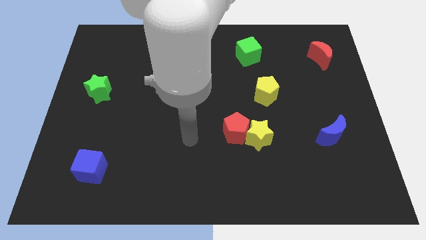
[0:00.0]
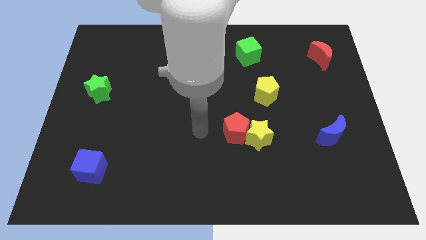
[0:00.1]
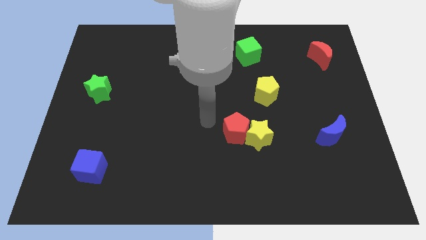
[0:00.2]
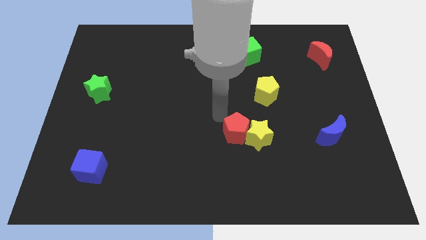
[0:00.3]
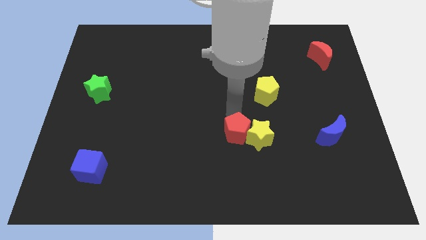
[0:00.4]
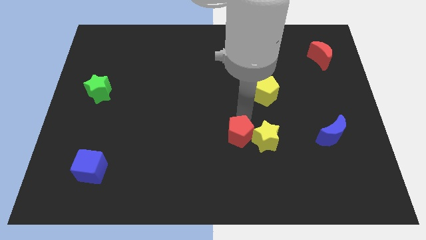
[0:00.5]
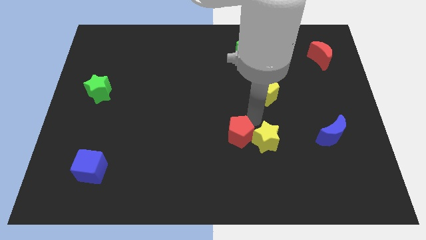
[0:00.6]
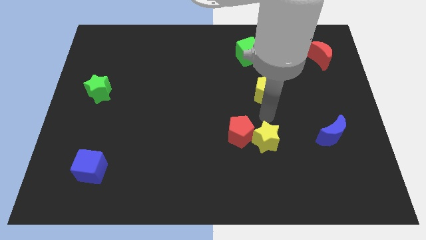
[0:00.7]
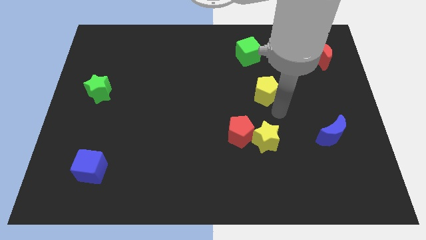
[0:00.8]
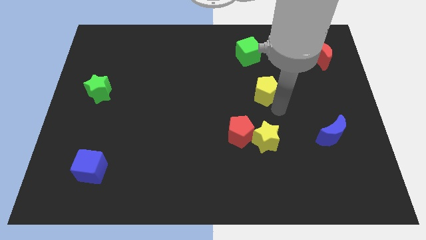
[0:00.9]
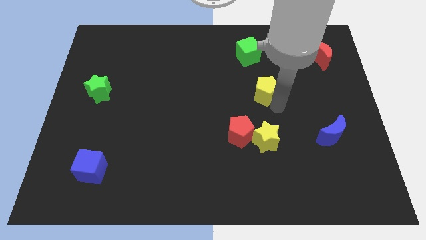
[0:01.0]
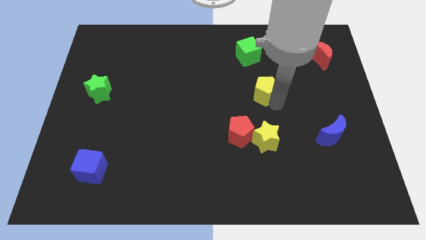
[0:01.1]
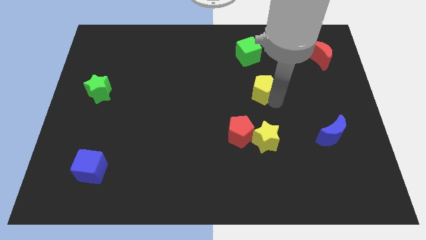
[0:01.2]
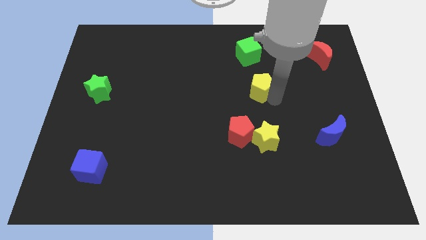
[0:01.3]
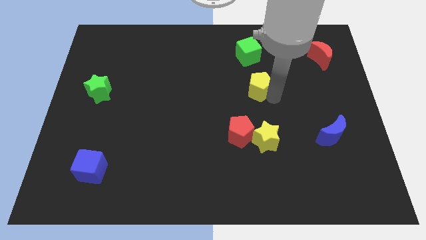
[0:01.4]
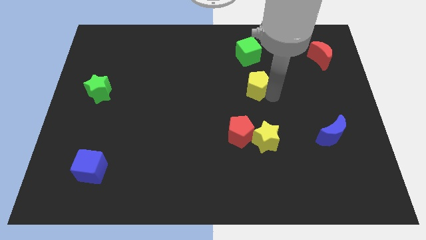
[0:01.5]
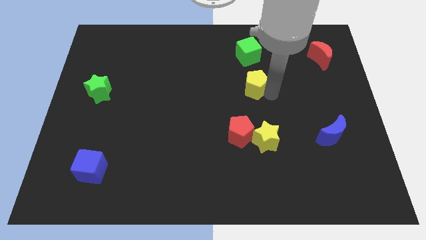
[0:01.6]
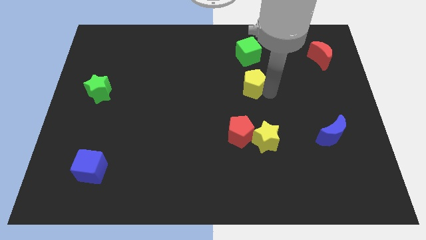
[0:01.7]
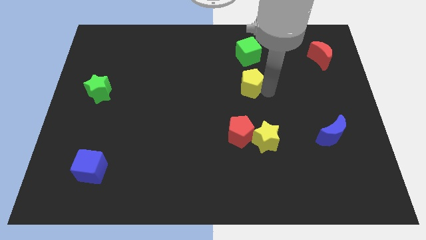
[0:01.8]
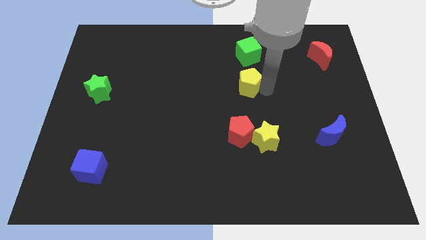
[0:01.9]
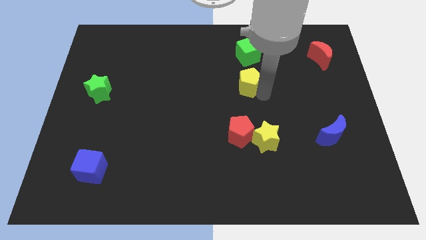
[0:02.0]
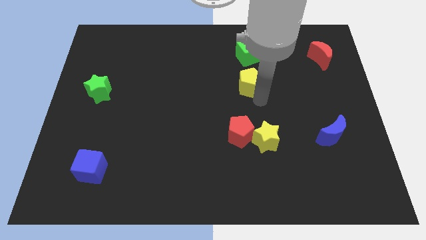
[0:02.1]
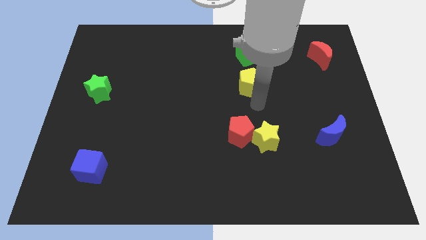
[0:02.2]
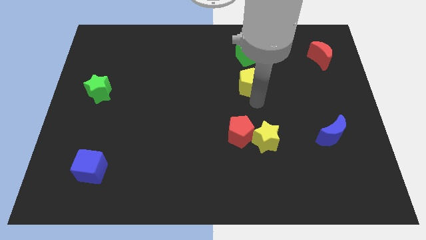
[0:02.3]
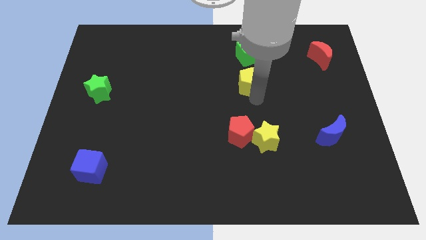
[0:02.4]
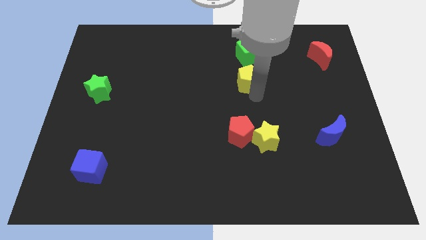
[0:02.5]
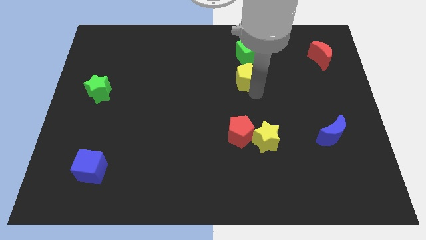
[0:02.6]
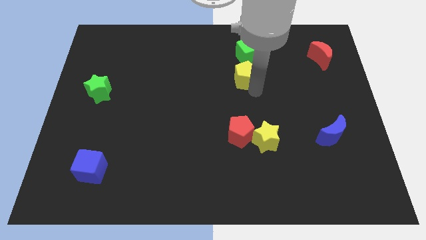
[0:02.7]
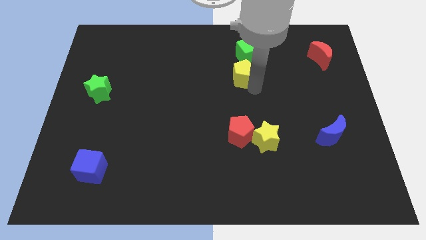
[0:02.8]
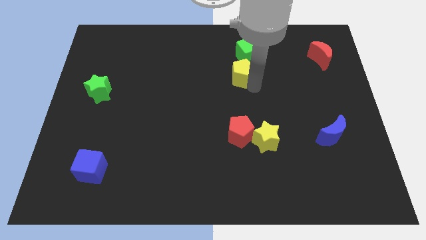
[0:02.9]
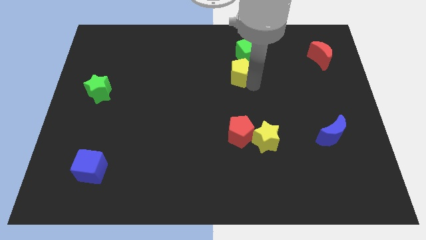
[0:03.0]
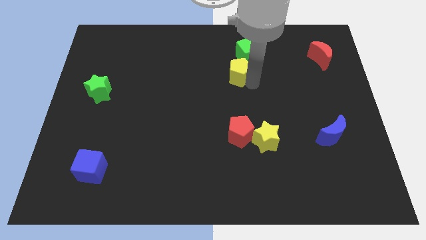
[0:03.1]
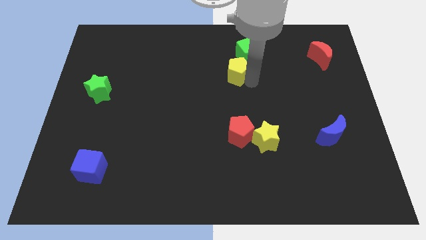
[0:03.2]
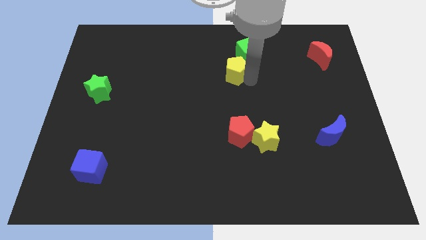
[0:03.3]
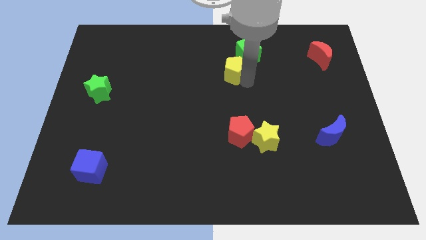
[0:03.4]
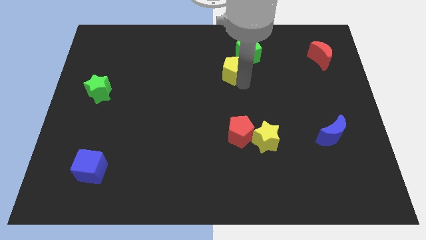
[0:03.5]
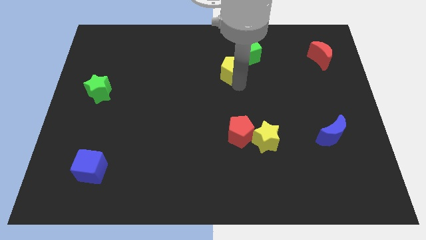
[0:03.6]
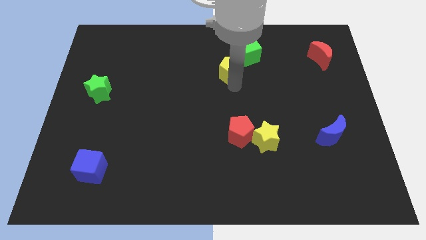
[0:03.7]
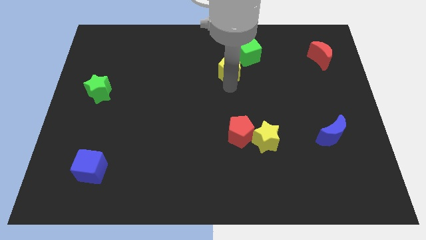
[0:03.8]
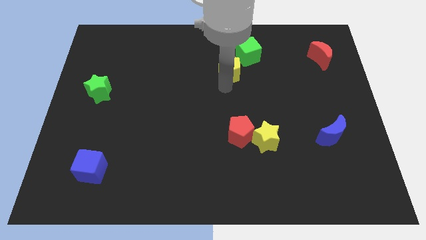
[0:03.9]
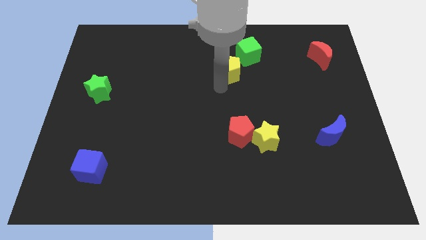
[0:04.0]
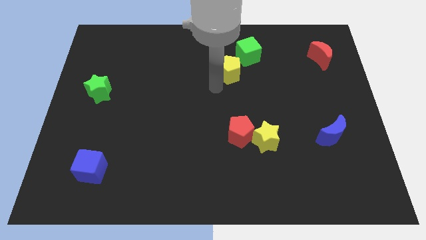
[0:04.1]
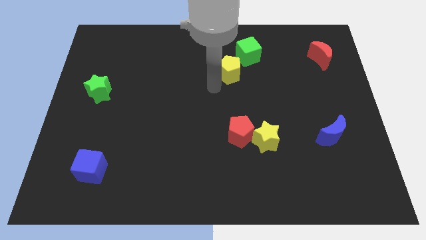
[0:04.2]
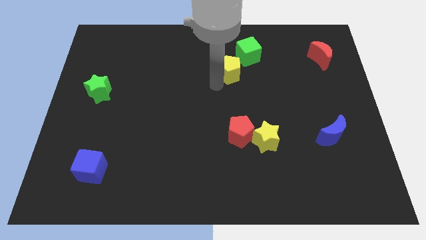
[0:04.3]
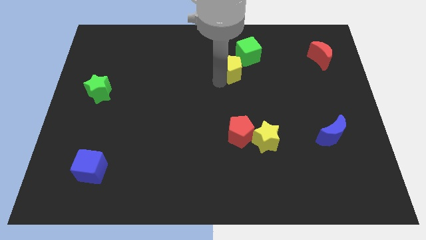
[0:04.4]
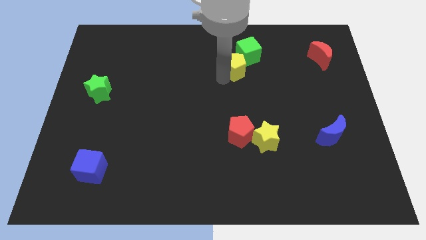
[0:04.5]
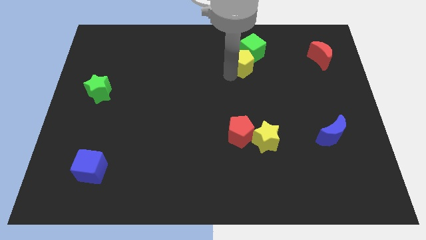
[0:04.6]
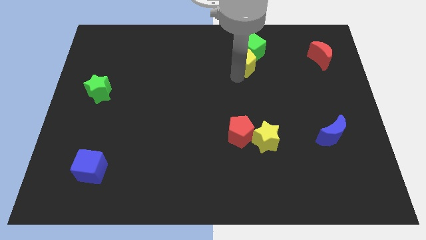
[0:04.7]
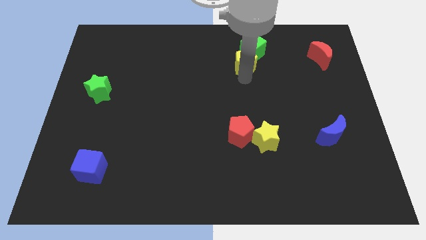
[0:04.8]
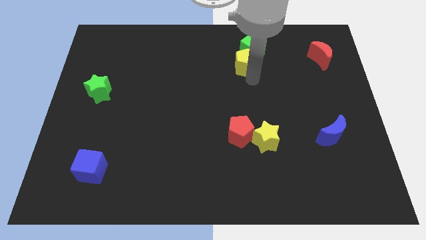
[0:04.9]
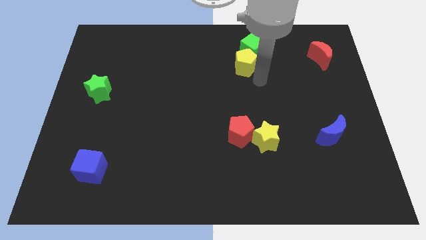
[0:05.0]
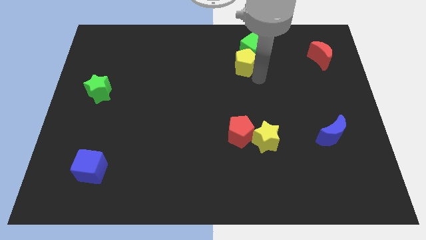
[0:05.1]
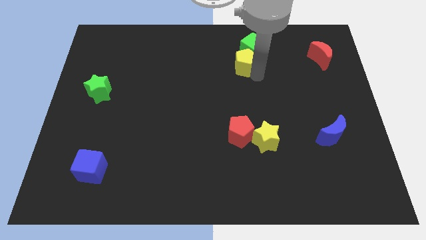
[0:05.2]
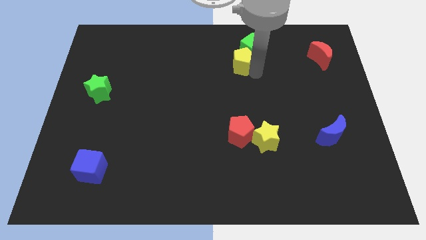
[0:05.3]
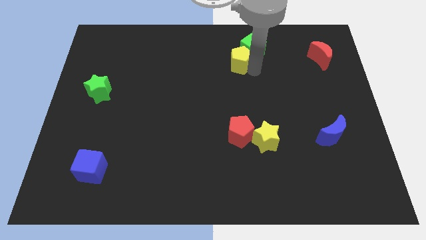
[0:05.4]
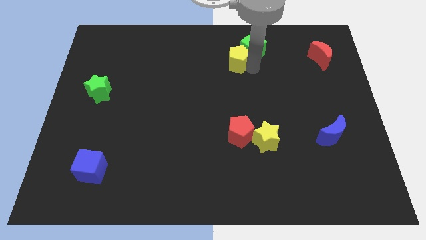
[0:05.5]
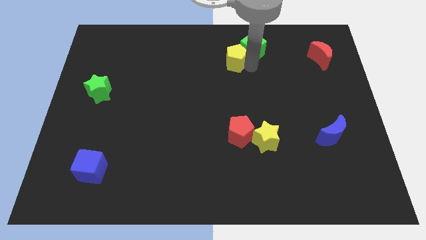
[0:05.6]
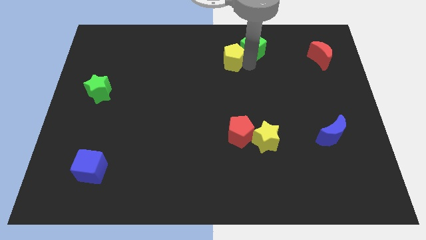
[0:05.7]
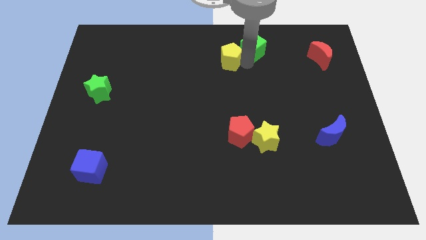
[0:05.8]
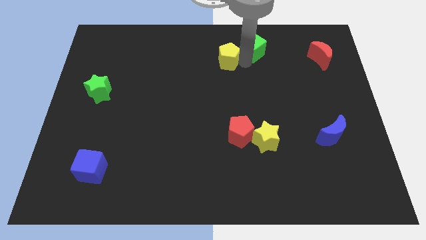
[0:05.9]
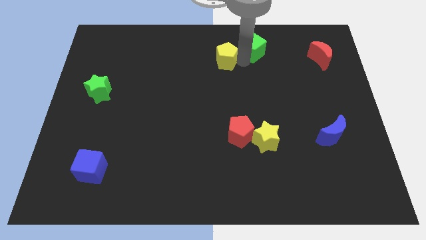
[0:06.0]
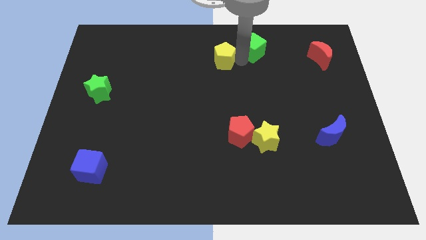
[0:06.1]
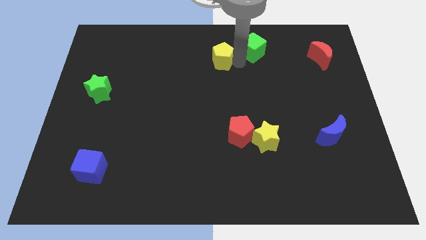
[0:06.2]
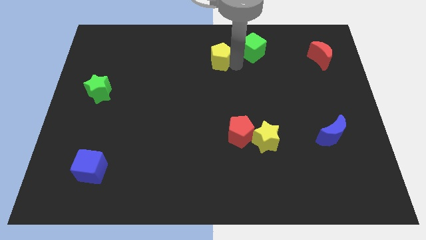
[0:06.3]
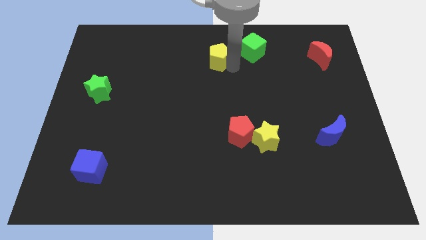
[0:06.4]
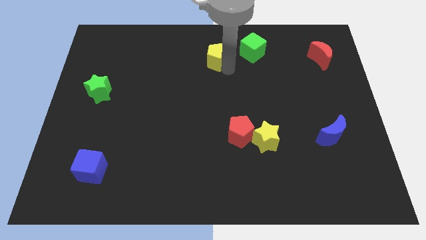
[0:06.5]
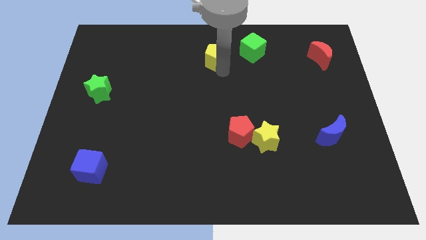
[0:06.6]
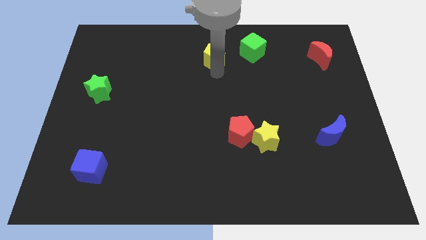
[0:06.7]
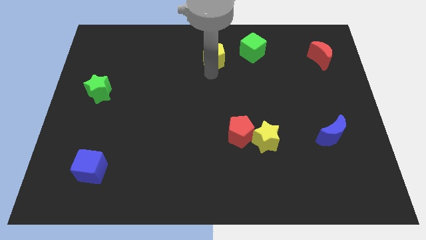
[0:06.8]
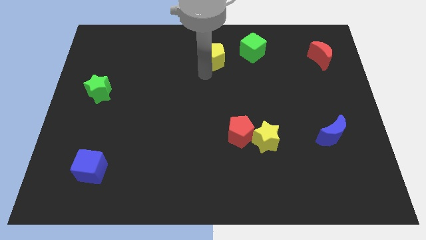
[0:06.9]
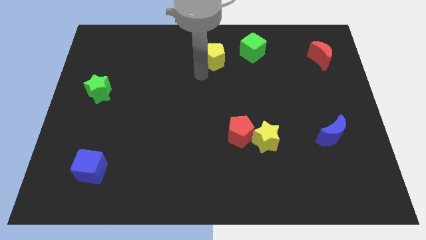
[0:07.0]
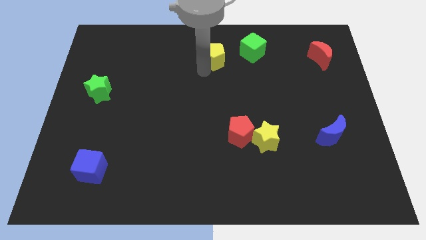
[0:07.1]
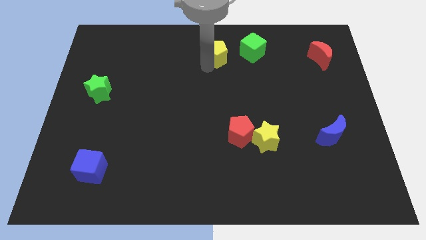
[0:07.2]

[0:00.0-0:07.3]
put the yellow pentagon to the top side
